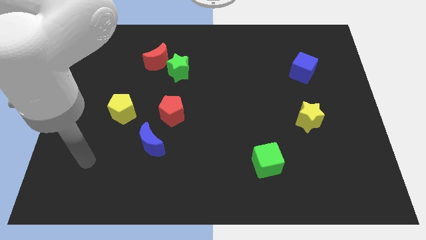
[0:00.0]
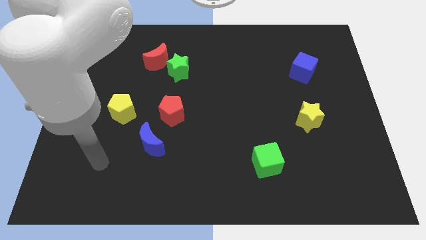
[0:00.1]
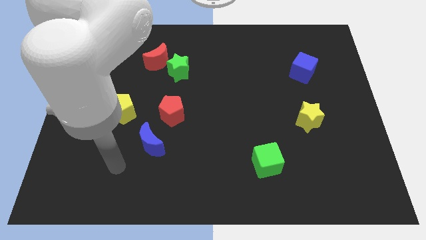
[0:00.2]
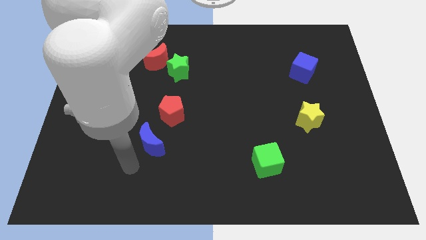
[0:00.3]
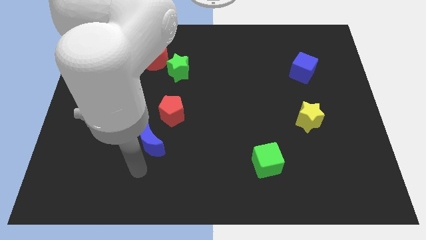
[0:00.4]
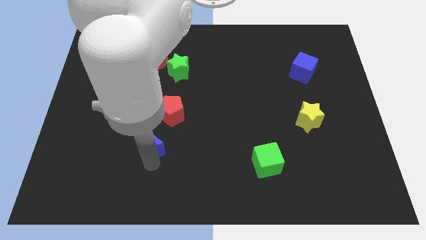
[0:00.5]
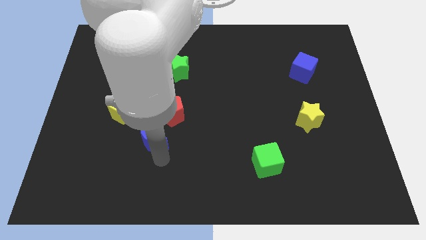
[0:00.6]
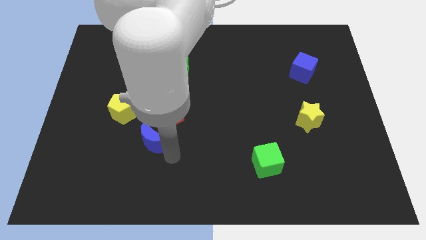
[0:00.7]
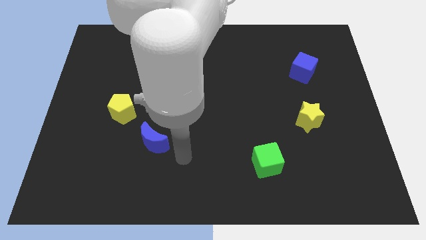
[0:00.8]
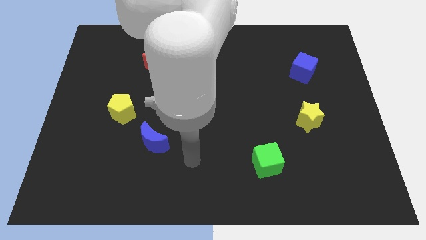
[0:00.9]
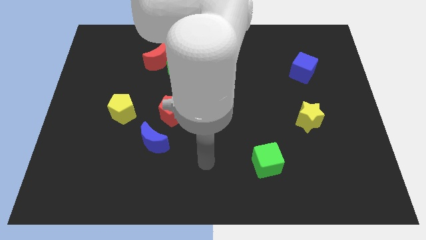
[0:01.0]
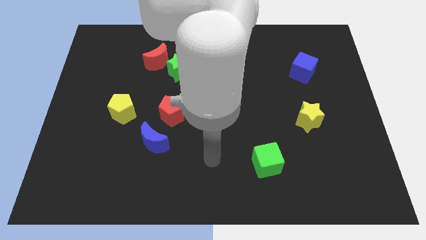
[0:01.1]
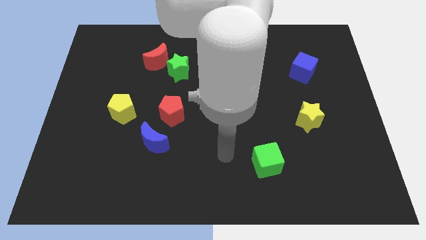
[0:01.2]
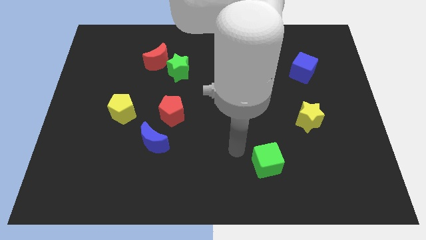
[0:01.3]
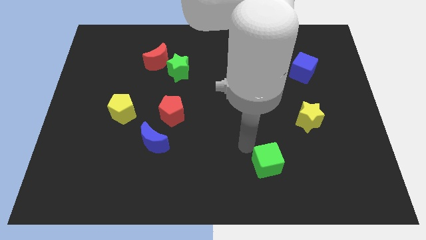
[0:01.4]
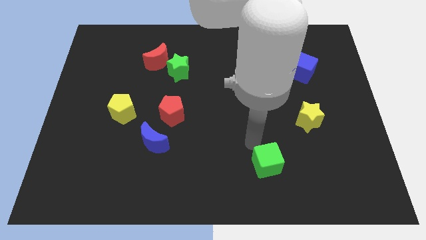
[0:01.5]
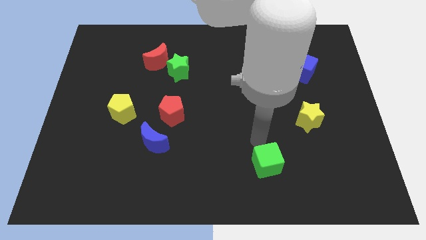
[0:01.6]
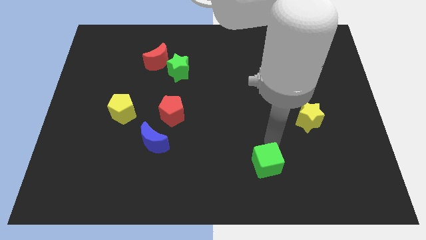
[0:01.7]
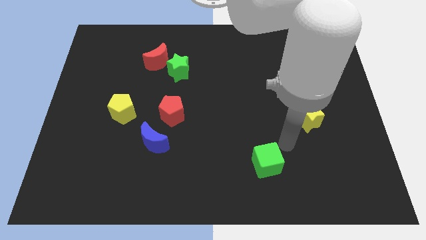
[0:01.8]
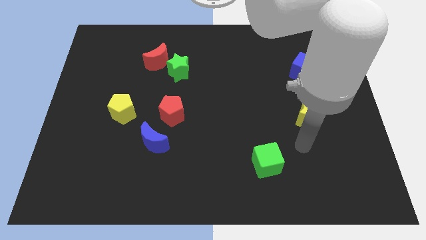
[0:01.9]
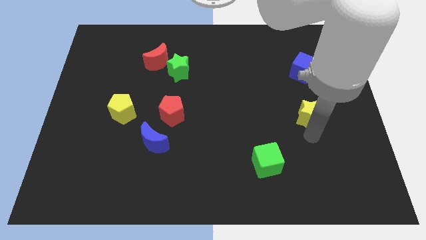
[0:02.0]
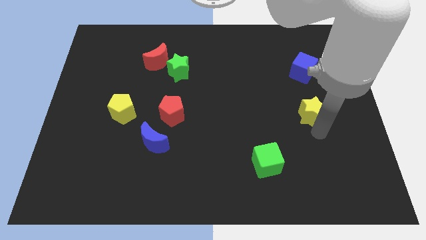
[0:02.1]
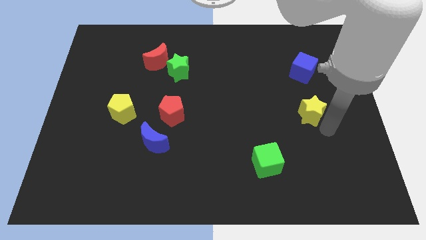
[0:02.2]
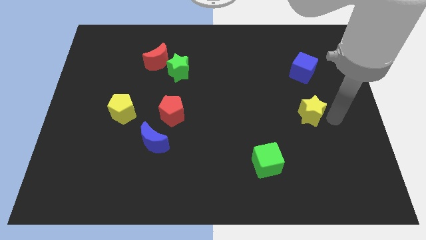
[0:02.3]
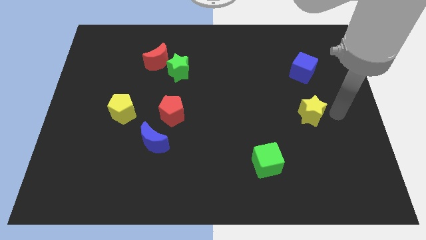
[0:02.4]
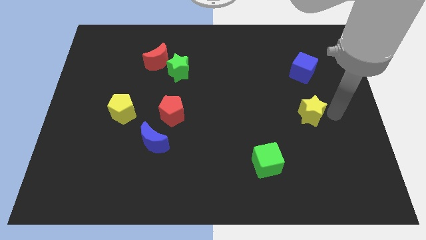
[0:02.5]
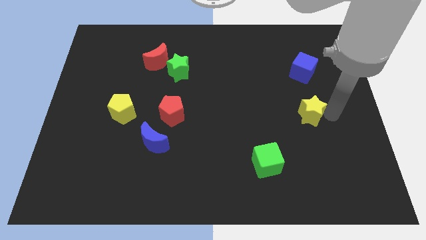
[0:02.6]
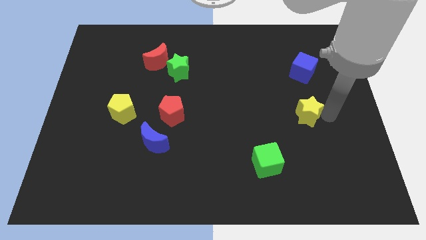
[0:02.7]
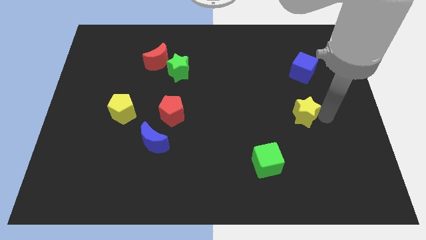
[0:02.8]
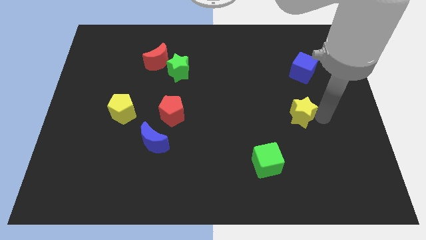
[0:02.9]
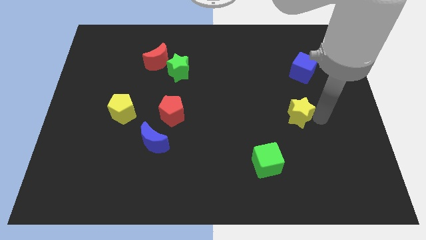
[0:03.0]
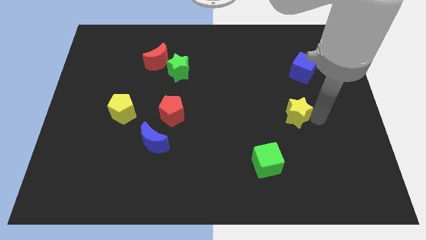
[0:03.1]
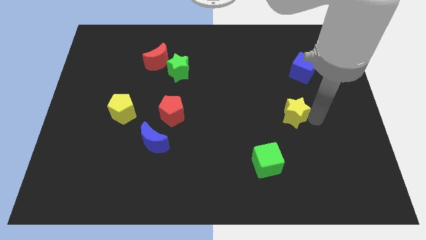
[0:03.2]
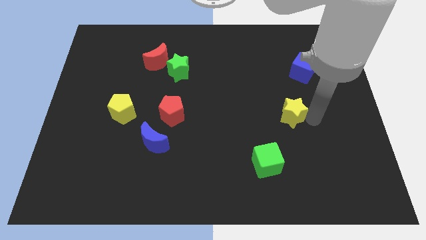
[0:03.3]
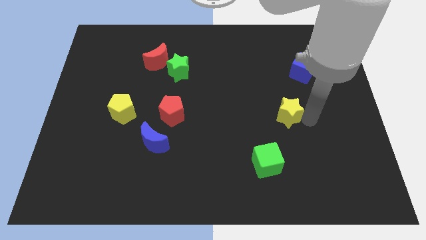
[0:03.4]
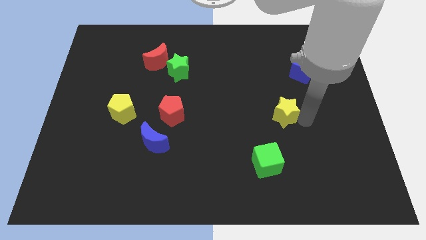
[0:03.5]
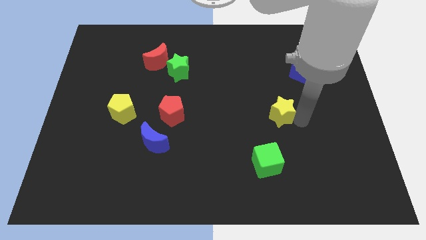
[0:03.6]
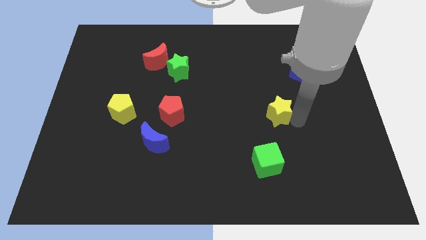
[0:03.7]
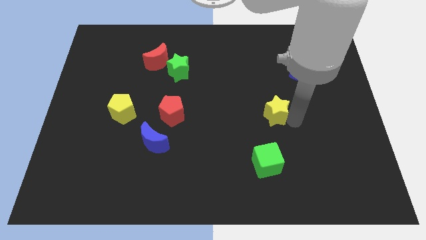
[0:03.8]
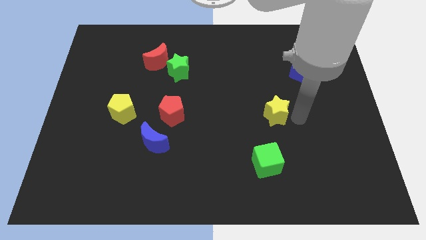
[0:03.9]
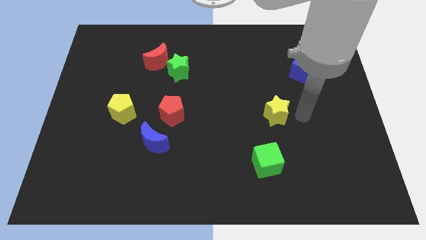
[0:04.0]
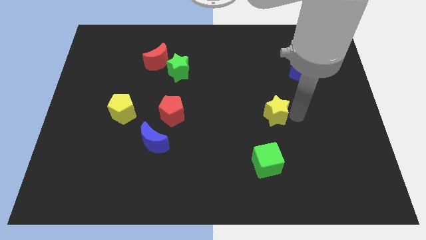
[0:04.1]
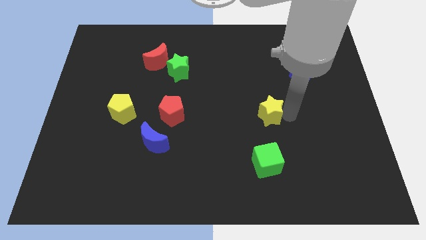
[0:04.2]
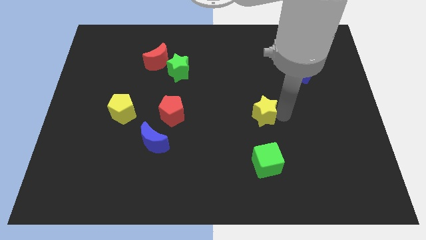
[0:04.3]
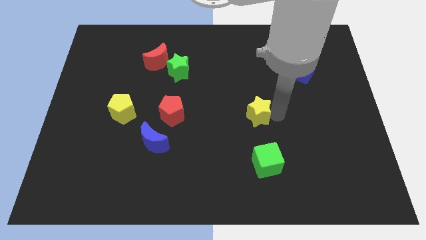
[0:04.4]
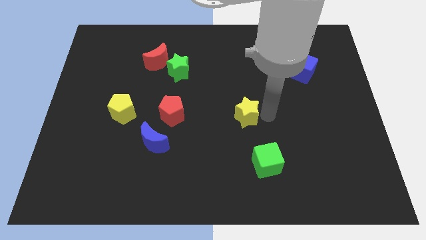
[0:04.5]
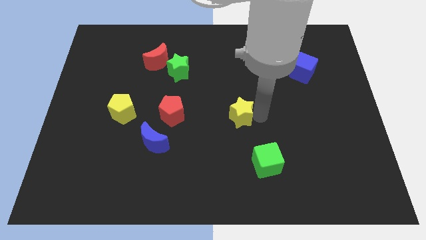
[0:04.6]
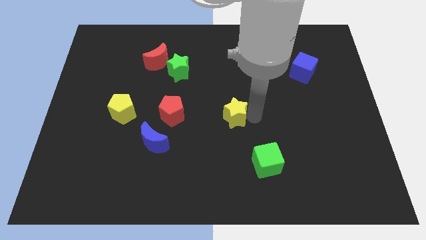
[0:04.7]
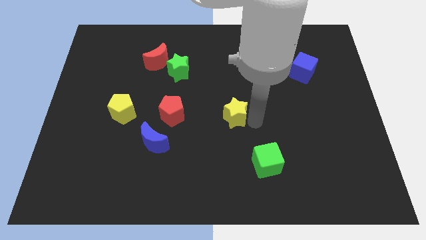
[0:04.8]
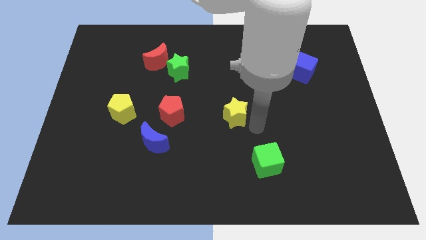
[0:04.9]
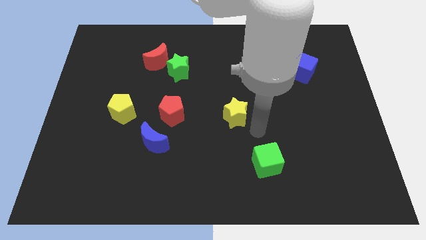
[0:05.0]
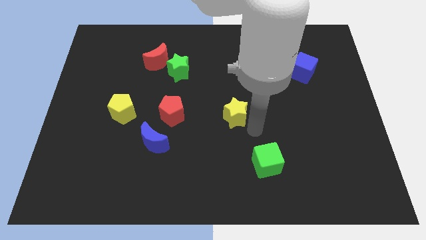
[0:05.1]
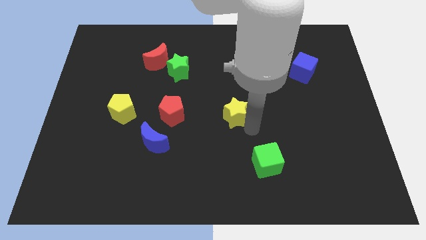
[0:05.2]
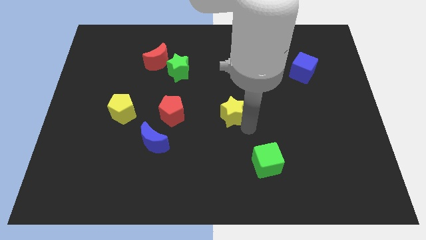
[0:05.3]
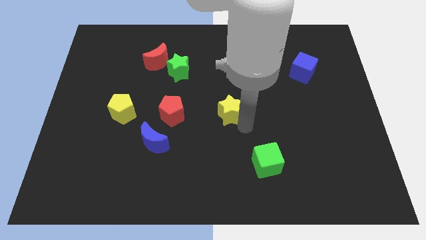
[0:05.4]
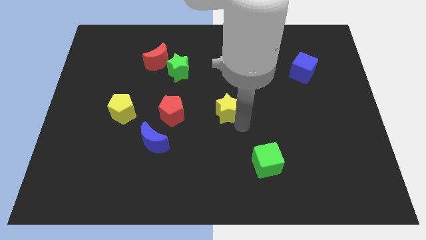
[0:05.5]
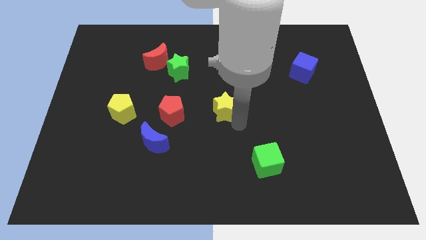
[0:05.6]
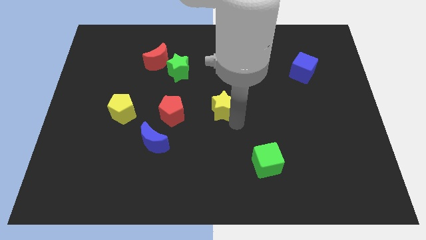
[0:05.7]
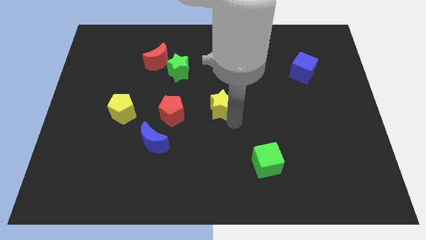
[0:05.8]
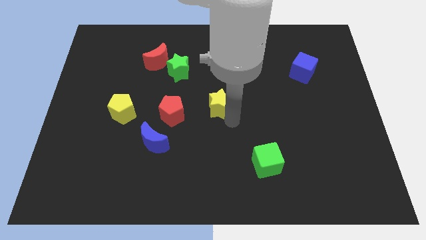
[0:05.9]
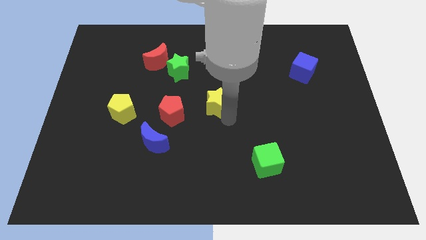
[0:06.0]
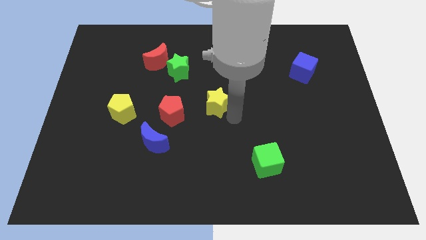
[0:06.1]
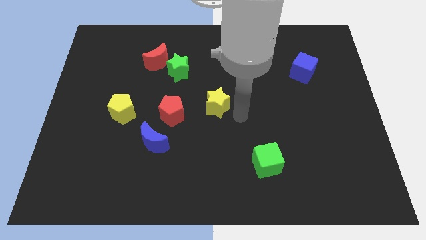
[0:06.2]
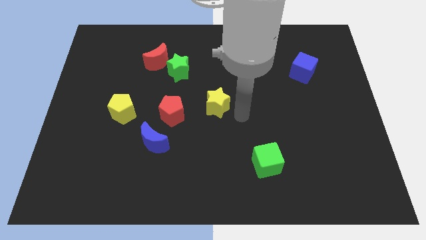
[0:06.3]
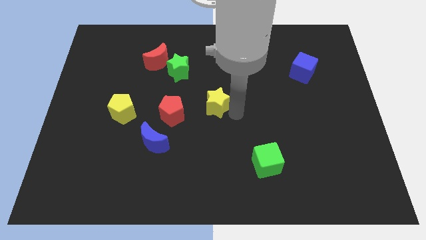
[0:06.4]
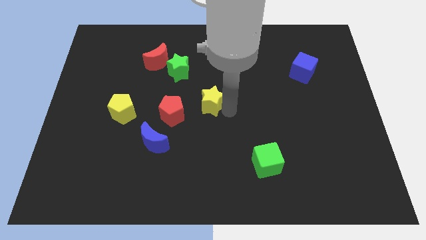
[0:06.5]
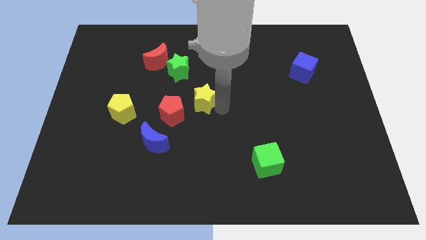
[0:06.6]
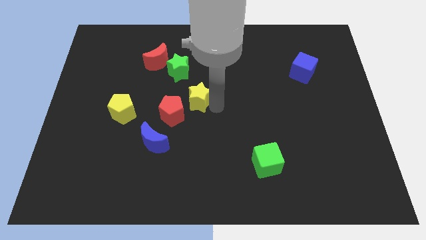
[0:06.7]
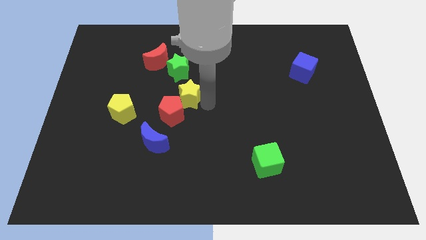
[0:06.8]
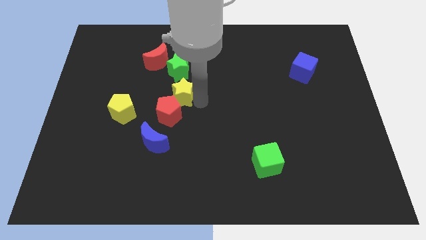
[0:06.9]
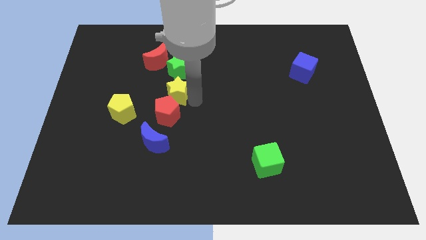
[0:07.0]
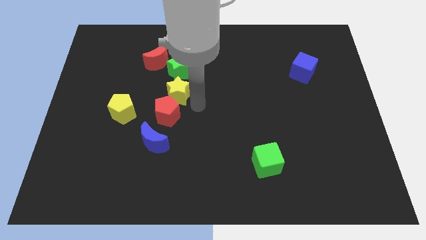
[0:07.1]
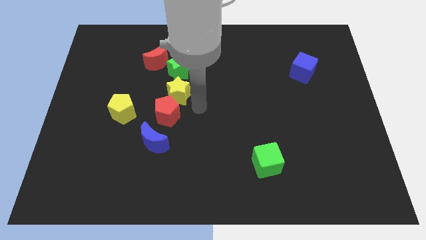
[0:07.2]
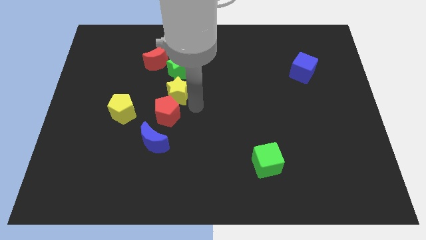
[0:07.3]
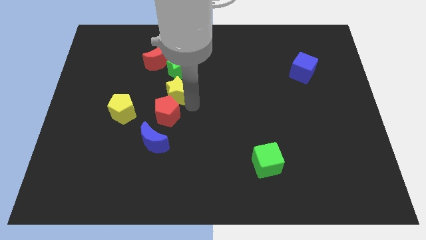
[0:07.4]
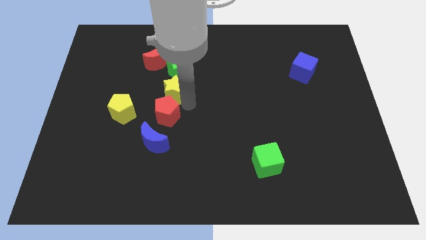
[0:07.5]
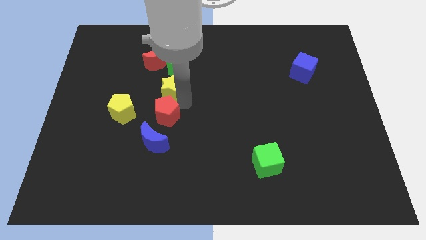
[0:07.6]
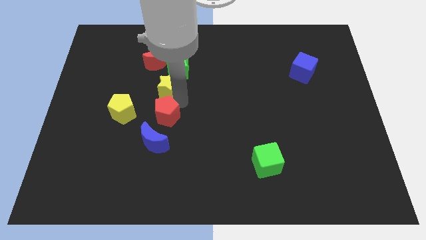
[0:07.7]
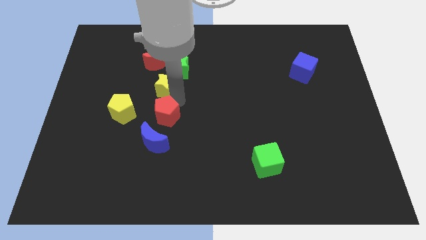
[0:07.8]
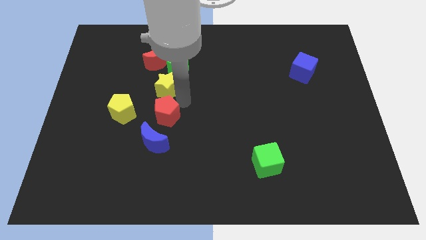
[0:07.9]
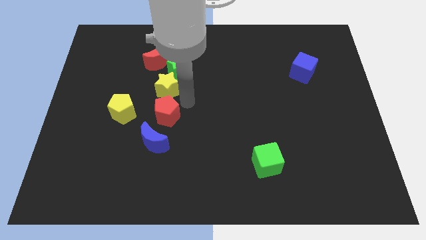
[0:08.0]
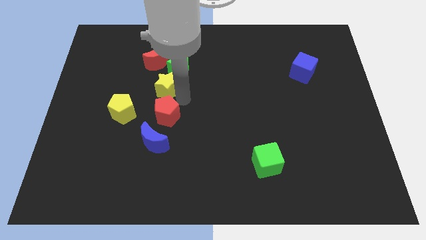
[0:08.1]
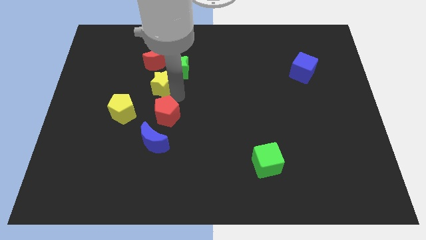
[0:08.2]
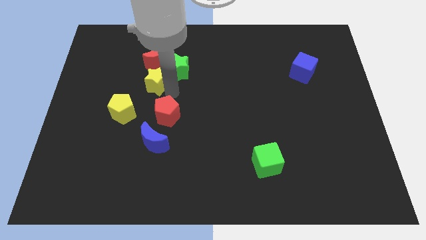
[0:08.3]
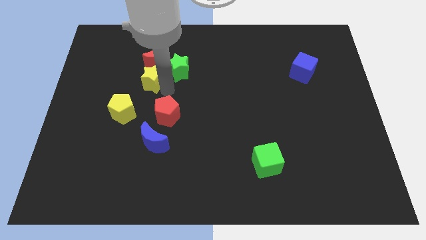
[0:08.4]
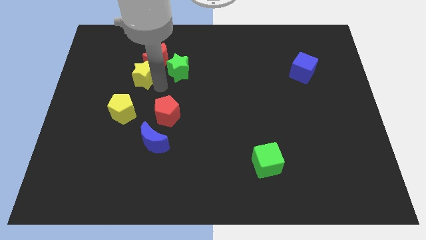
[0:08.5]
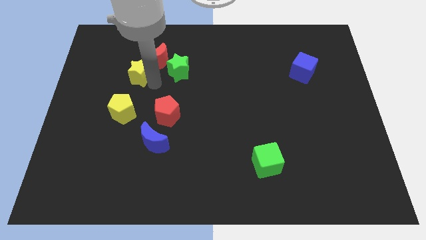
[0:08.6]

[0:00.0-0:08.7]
slide the yellow star to the left of the red moon
